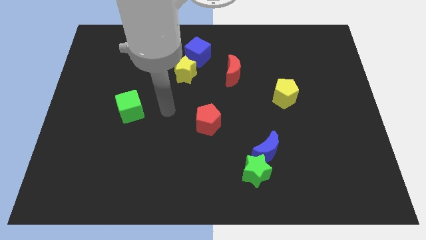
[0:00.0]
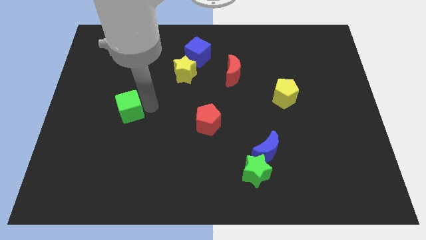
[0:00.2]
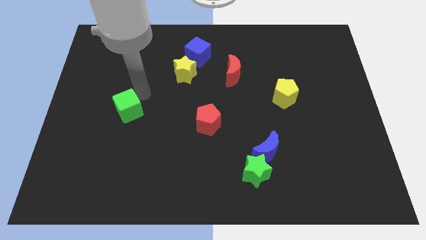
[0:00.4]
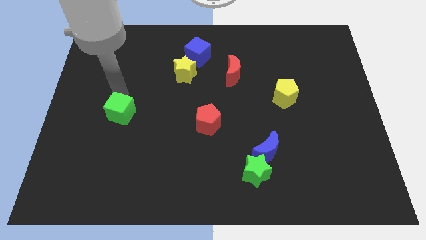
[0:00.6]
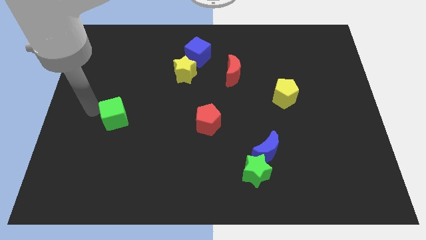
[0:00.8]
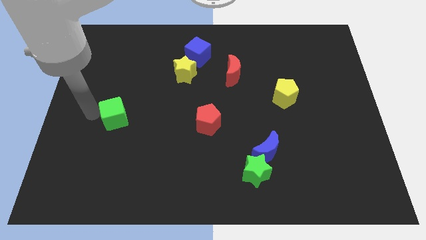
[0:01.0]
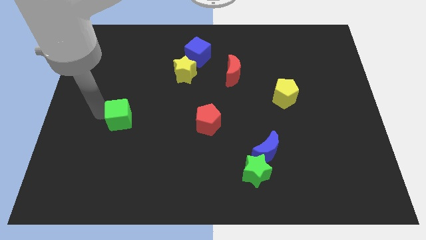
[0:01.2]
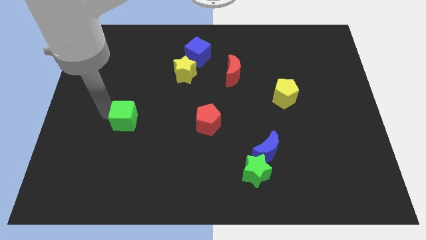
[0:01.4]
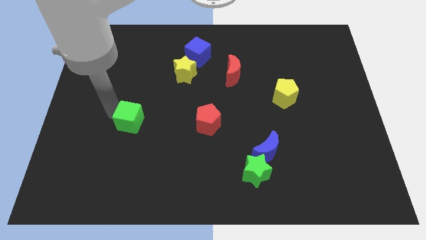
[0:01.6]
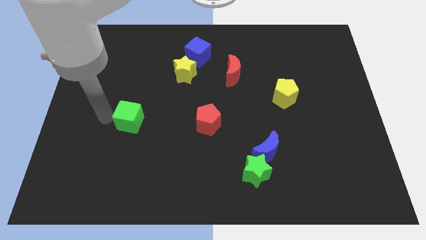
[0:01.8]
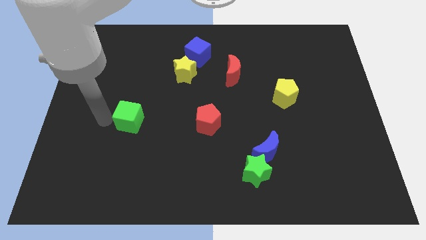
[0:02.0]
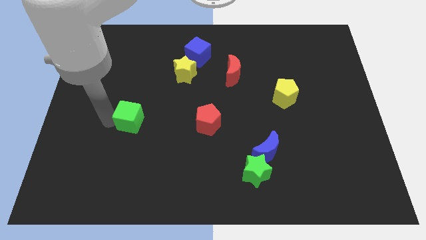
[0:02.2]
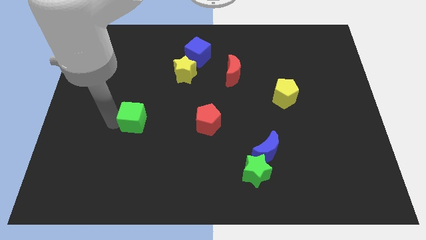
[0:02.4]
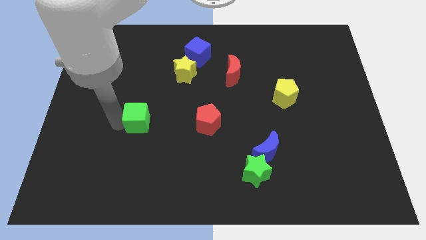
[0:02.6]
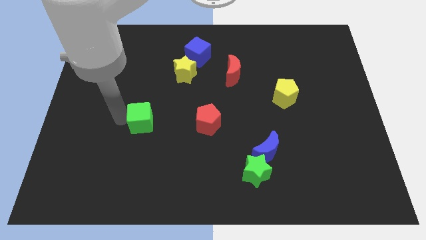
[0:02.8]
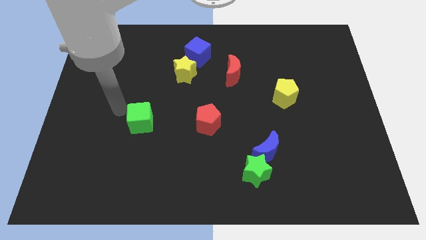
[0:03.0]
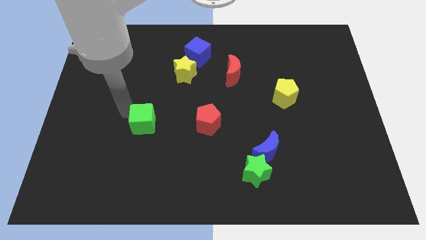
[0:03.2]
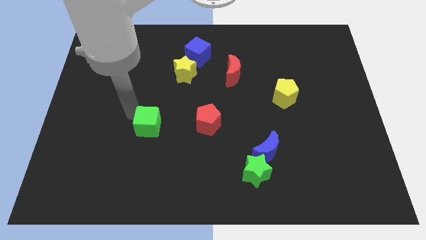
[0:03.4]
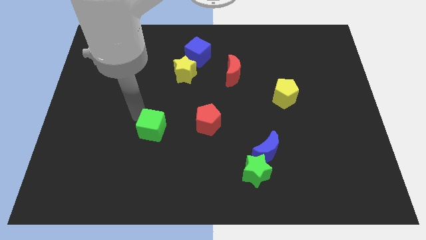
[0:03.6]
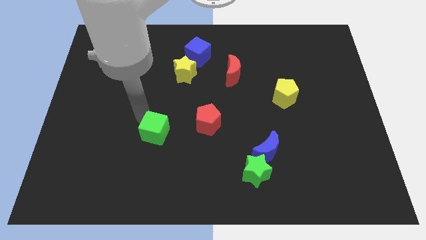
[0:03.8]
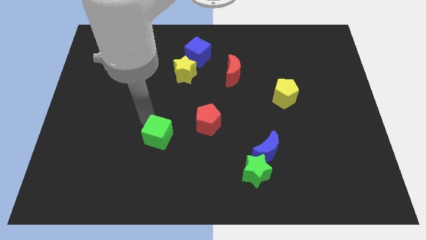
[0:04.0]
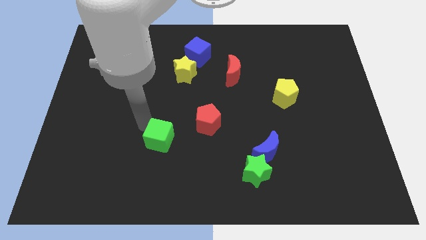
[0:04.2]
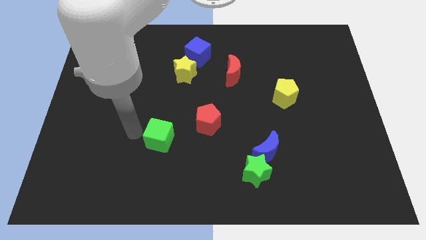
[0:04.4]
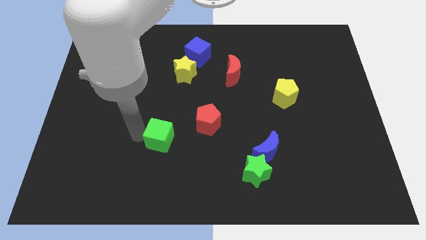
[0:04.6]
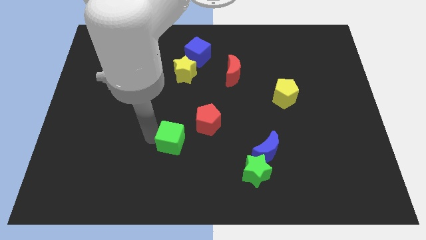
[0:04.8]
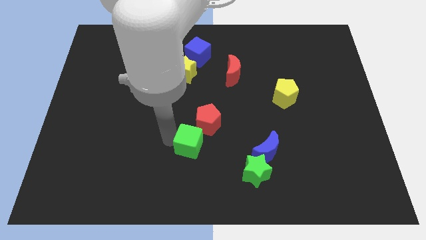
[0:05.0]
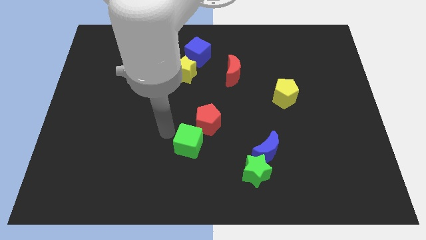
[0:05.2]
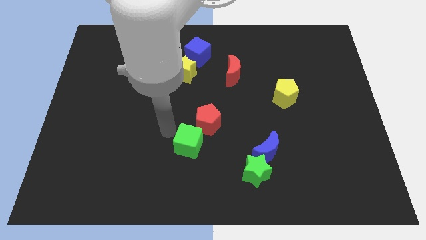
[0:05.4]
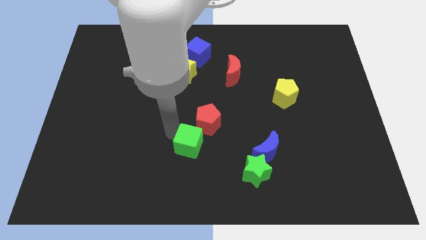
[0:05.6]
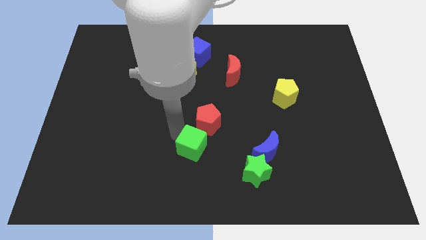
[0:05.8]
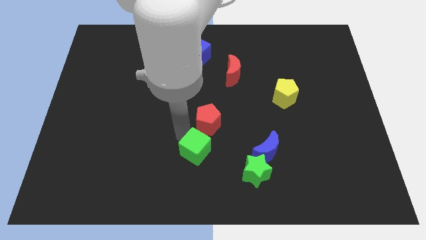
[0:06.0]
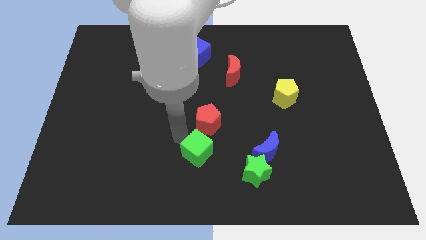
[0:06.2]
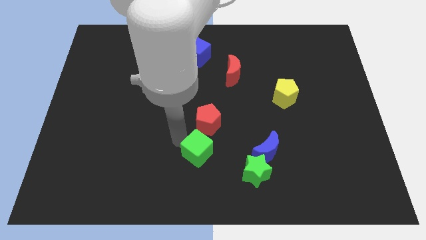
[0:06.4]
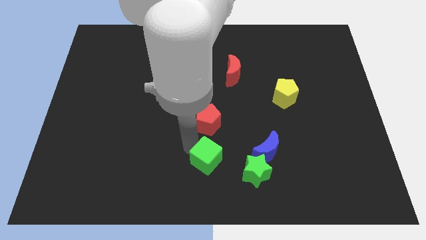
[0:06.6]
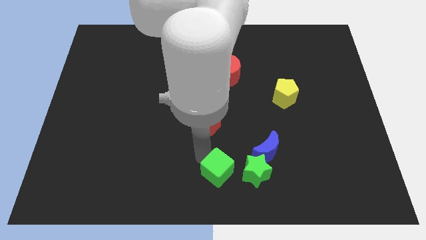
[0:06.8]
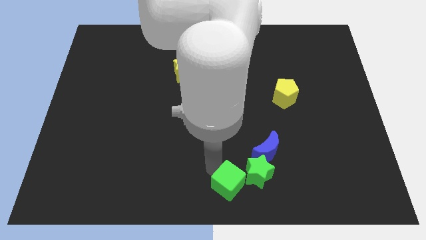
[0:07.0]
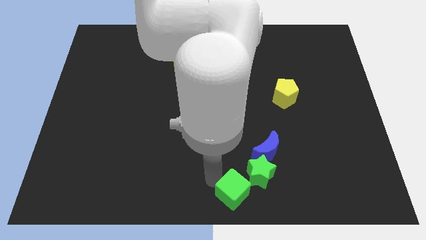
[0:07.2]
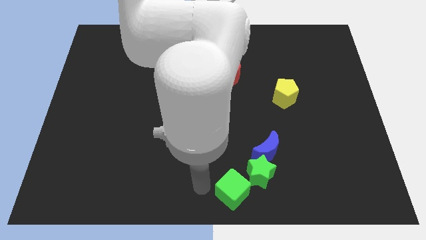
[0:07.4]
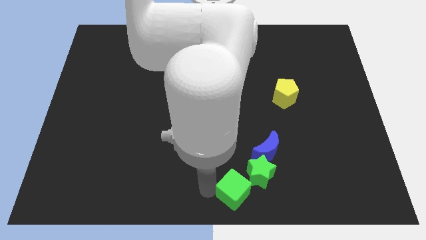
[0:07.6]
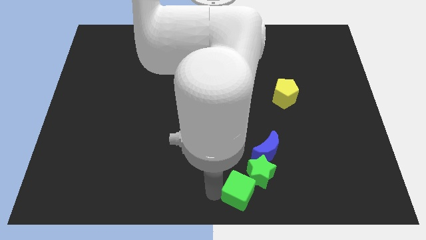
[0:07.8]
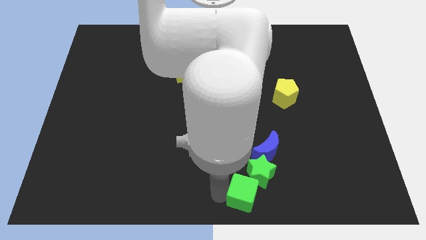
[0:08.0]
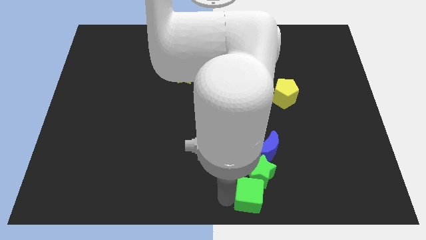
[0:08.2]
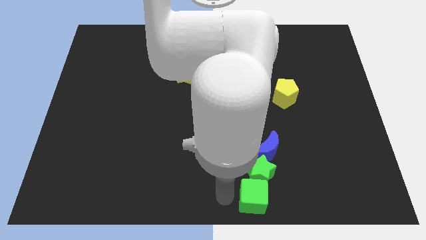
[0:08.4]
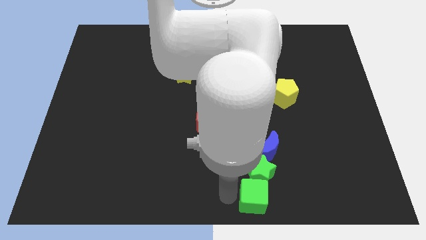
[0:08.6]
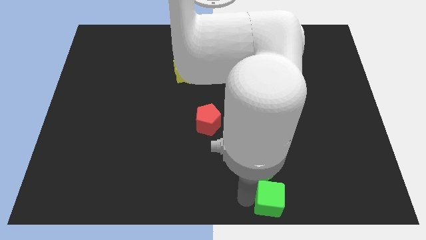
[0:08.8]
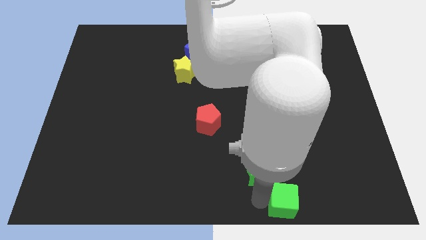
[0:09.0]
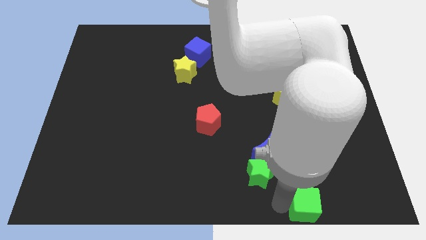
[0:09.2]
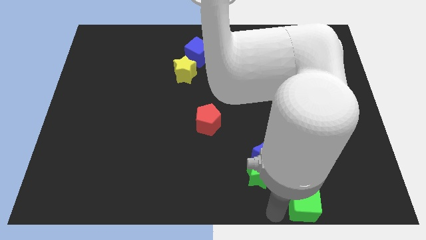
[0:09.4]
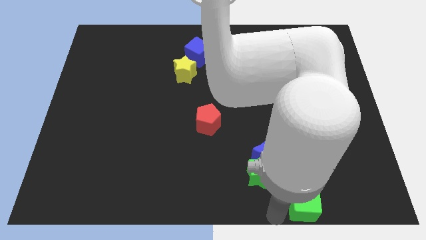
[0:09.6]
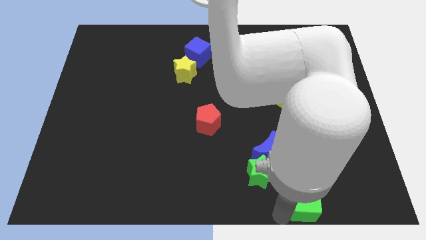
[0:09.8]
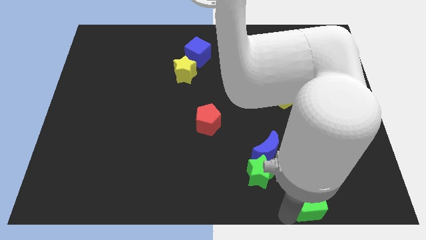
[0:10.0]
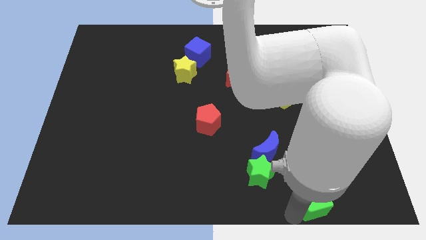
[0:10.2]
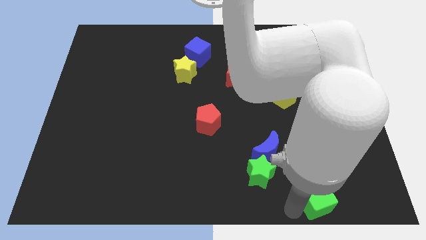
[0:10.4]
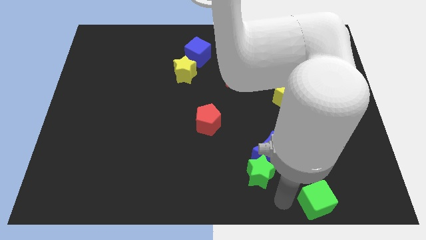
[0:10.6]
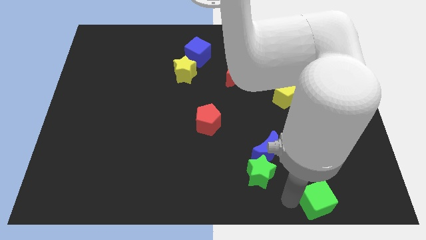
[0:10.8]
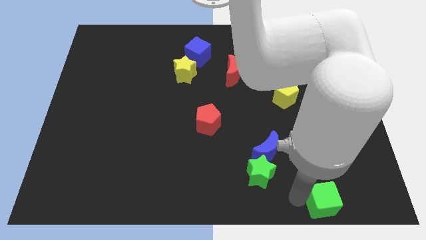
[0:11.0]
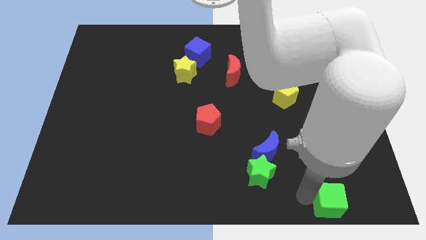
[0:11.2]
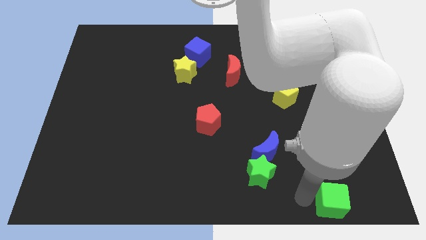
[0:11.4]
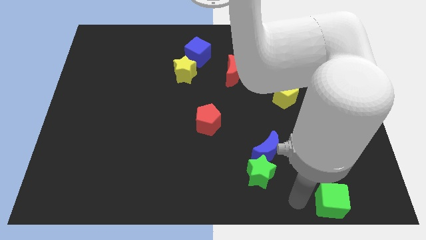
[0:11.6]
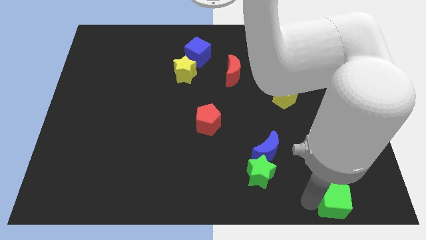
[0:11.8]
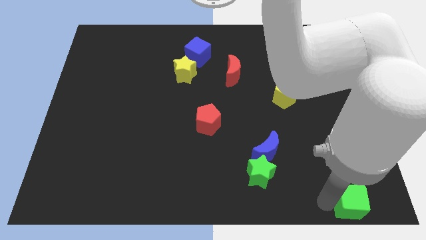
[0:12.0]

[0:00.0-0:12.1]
push the green cube to the bottom right

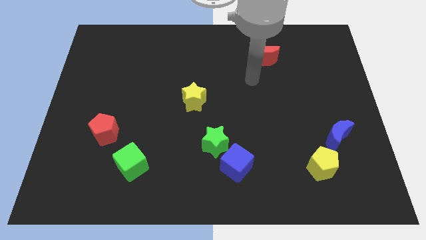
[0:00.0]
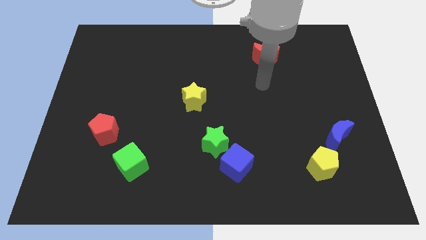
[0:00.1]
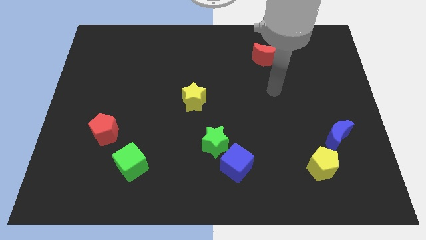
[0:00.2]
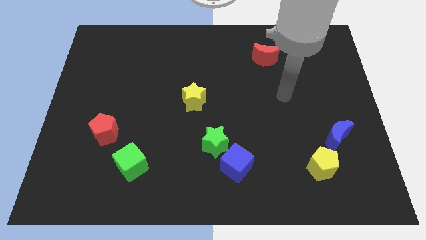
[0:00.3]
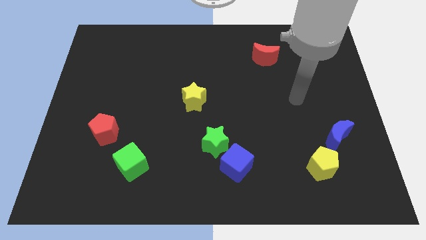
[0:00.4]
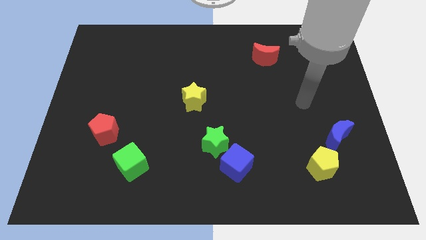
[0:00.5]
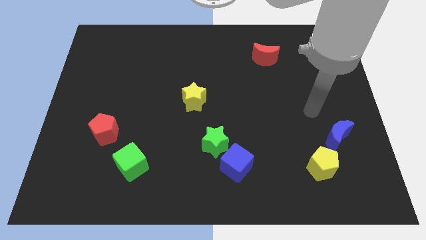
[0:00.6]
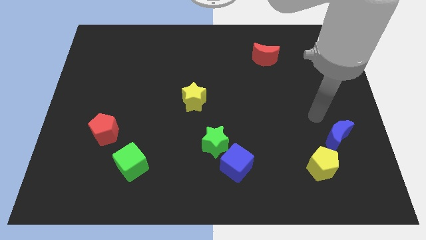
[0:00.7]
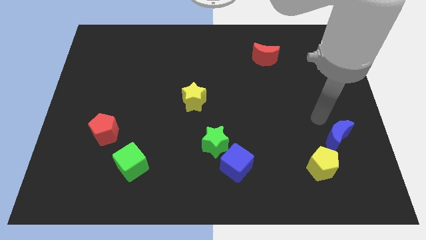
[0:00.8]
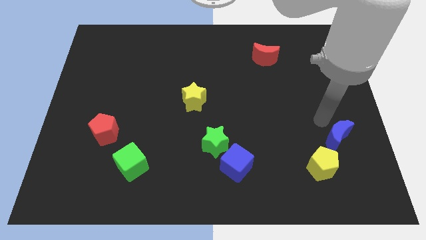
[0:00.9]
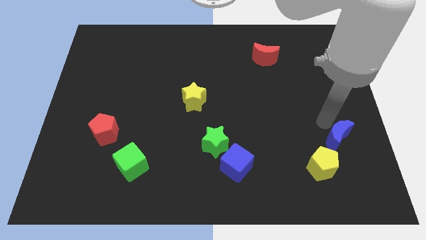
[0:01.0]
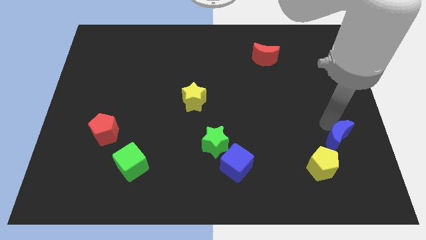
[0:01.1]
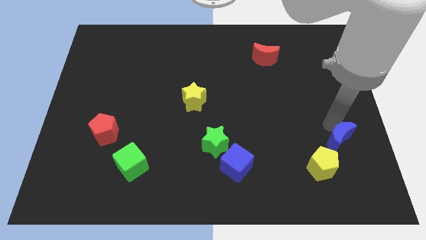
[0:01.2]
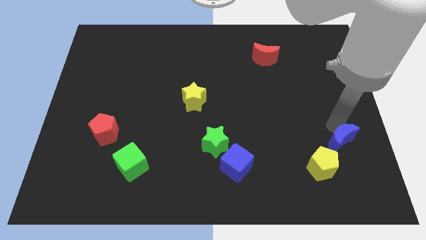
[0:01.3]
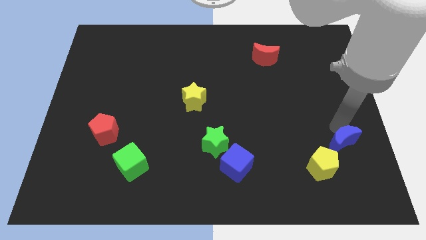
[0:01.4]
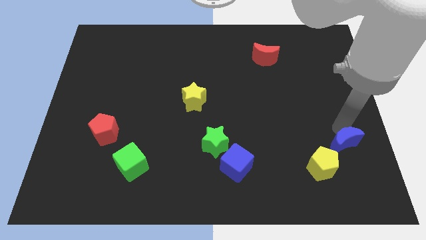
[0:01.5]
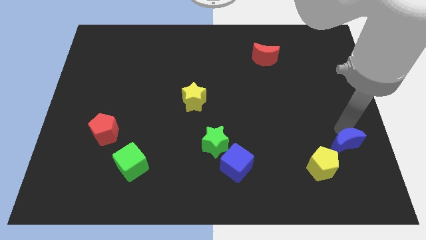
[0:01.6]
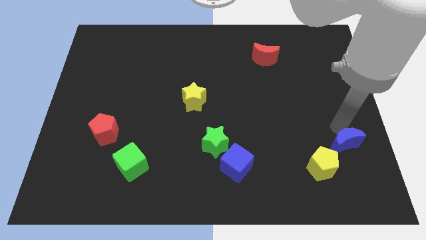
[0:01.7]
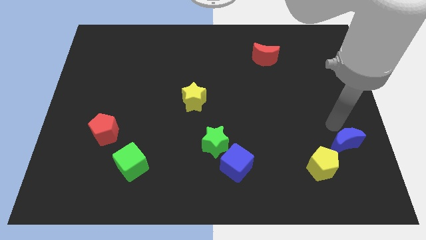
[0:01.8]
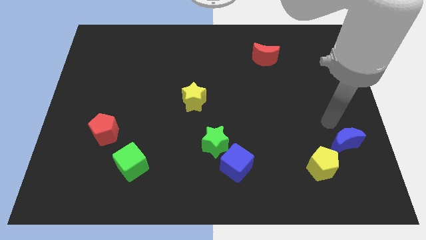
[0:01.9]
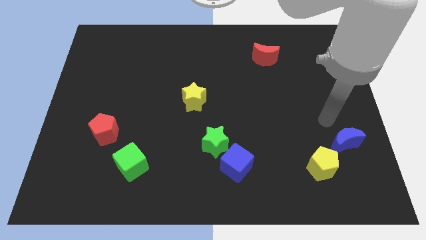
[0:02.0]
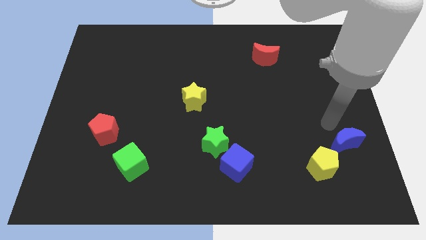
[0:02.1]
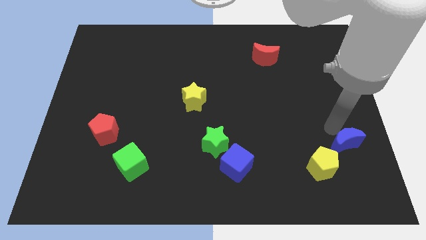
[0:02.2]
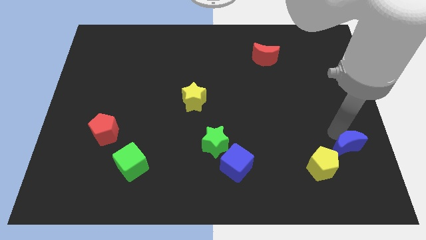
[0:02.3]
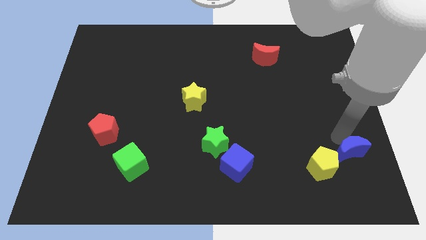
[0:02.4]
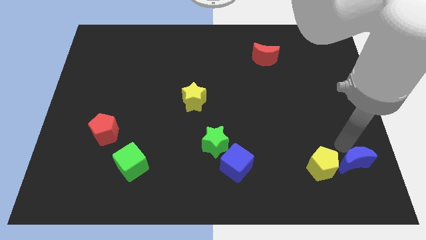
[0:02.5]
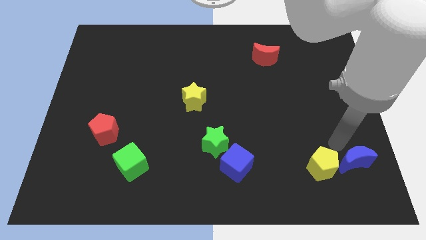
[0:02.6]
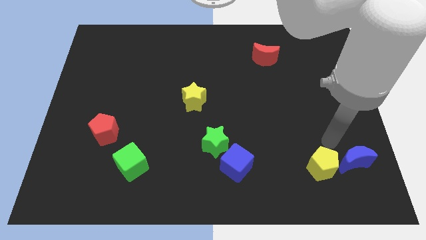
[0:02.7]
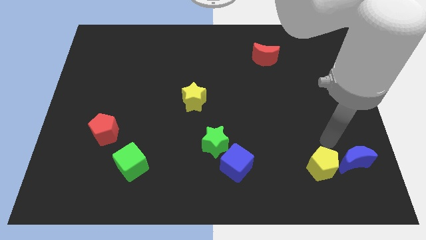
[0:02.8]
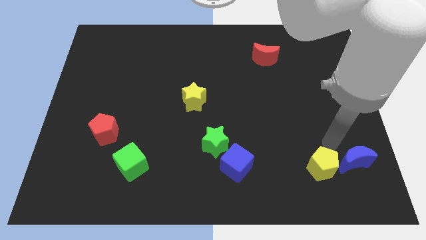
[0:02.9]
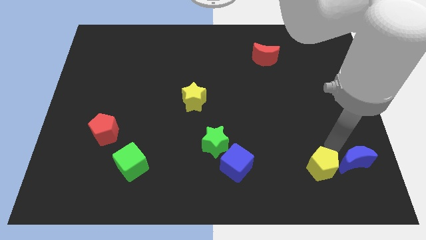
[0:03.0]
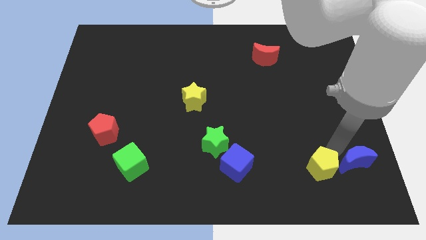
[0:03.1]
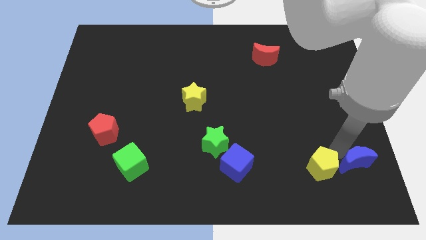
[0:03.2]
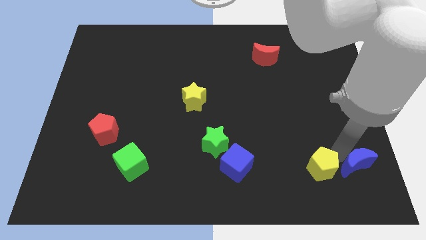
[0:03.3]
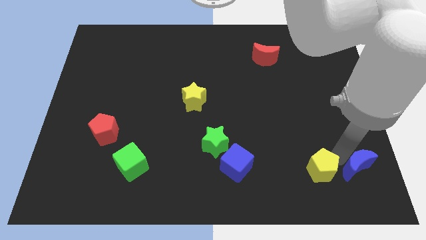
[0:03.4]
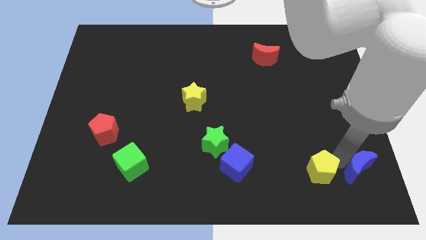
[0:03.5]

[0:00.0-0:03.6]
slide the blue moon to the bottom right of the board
